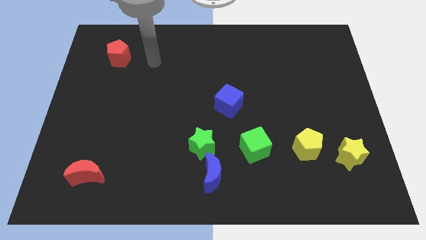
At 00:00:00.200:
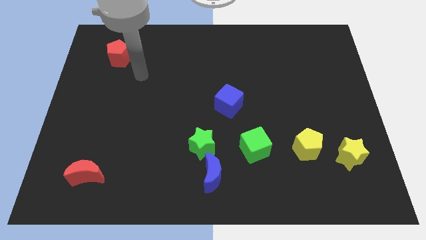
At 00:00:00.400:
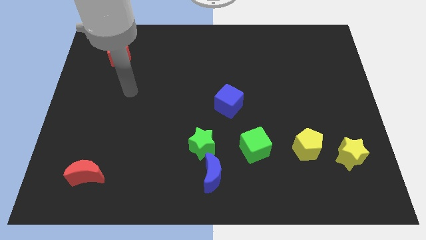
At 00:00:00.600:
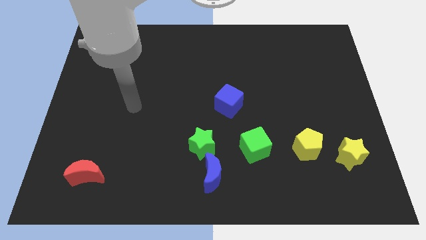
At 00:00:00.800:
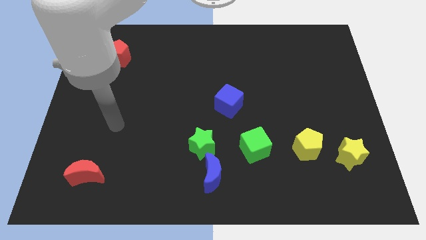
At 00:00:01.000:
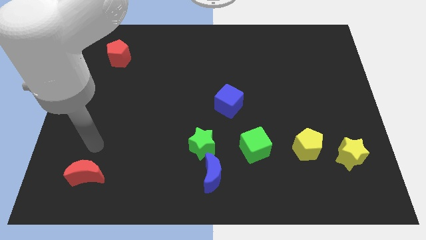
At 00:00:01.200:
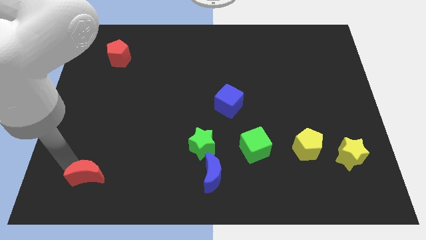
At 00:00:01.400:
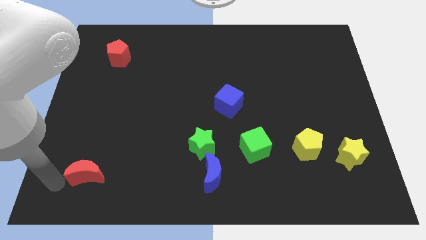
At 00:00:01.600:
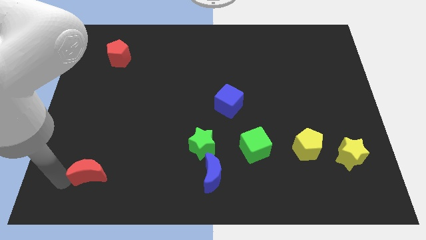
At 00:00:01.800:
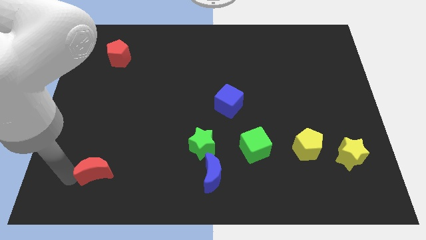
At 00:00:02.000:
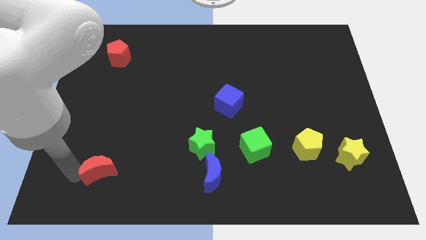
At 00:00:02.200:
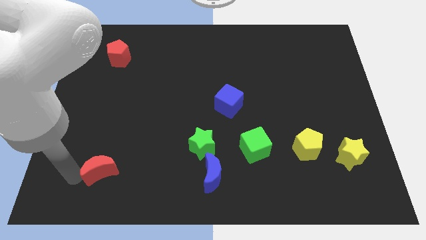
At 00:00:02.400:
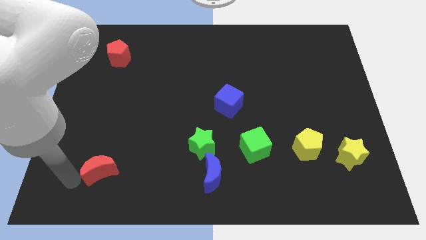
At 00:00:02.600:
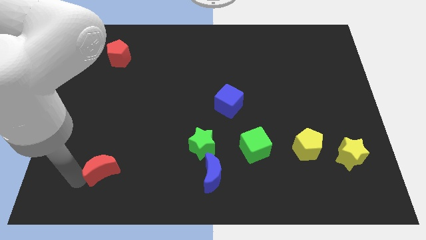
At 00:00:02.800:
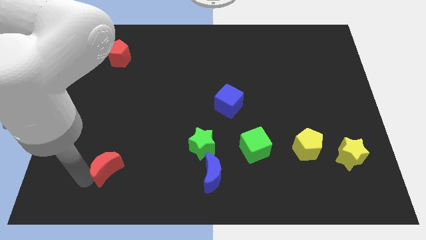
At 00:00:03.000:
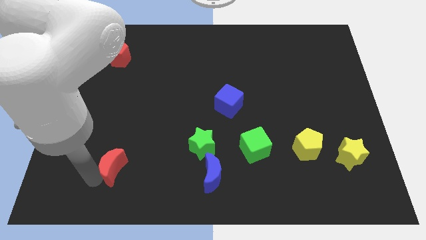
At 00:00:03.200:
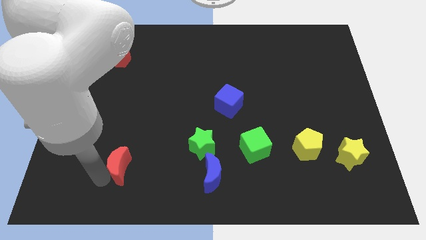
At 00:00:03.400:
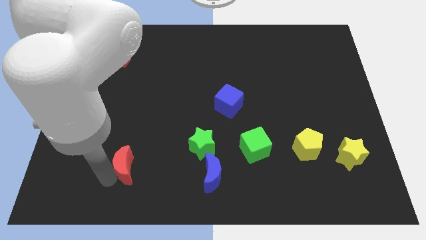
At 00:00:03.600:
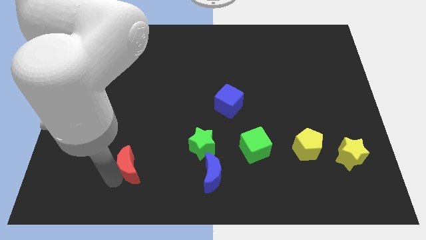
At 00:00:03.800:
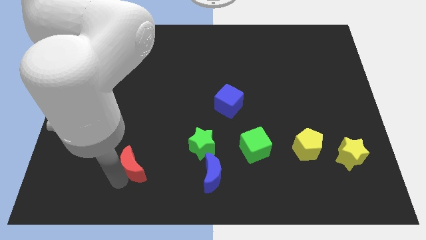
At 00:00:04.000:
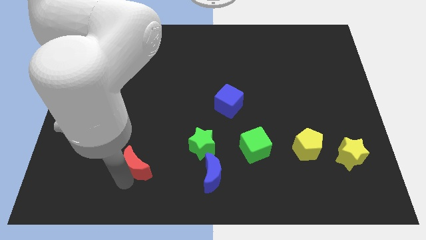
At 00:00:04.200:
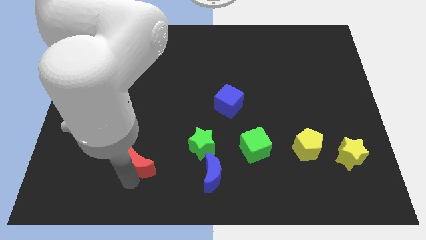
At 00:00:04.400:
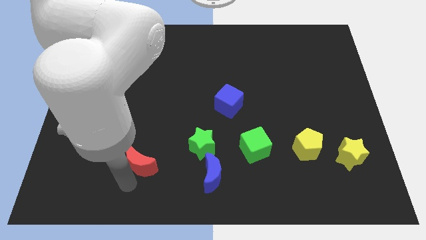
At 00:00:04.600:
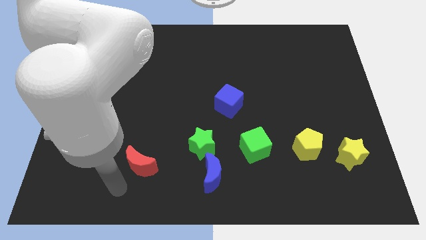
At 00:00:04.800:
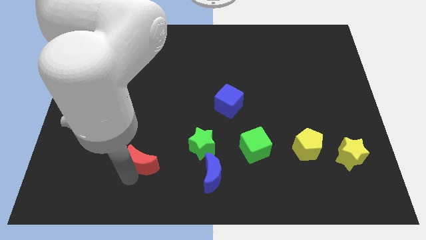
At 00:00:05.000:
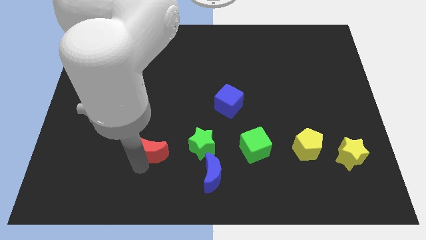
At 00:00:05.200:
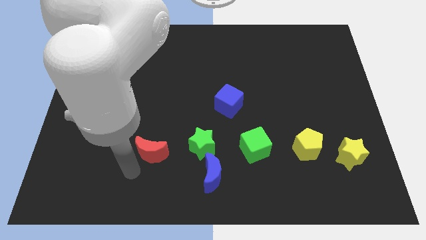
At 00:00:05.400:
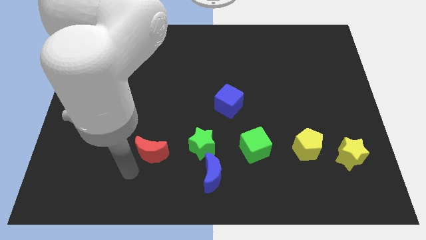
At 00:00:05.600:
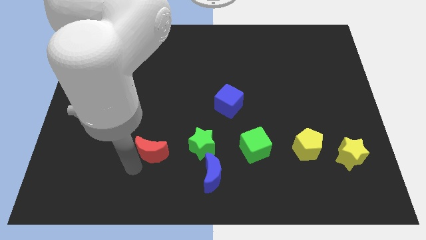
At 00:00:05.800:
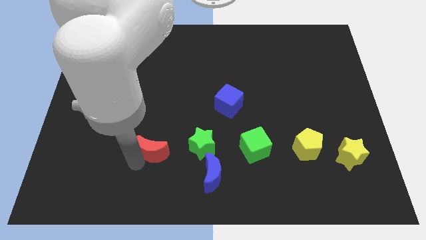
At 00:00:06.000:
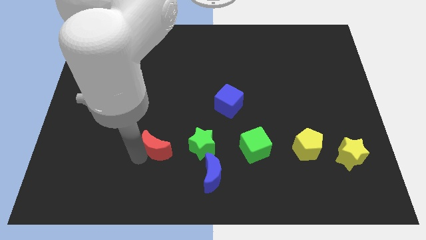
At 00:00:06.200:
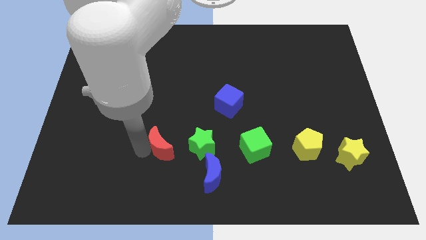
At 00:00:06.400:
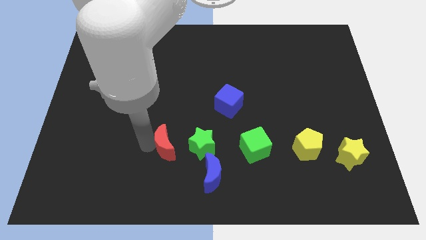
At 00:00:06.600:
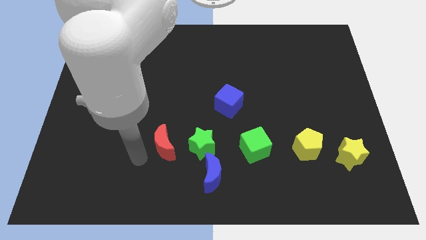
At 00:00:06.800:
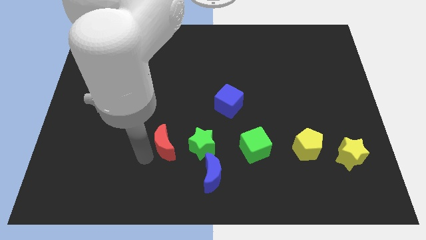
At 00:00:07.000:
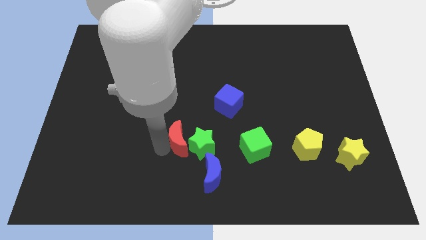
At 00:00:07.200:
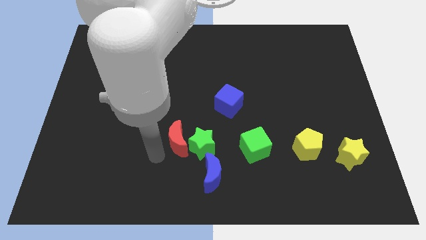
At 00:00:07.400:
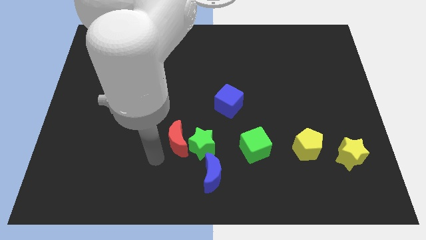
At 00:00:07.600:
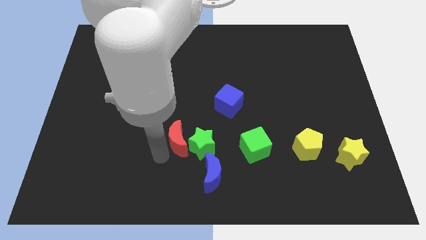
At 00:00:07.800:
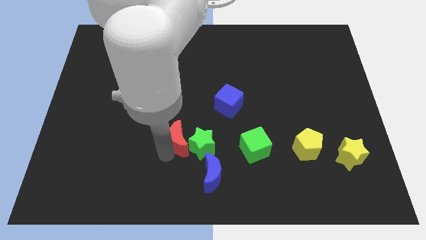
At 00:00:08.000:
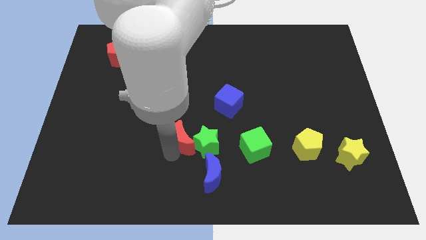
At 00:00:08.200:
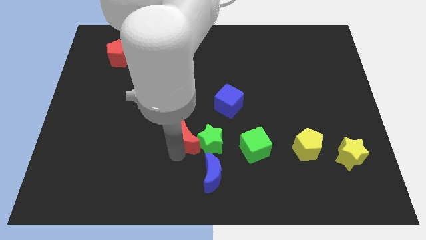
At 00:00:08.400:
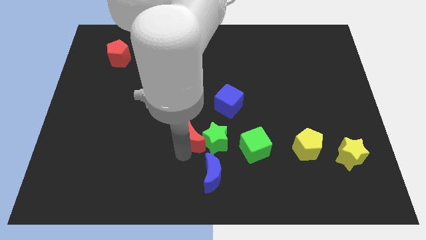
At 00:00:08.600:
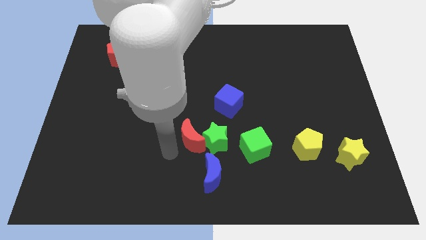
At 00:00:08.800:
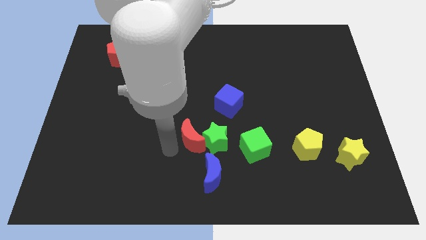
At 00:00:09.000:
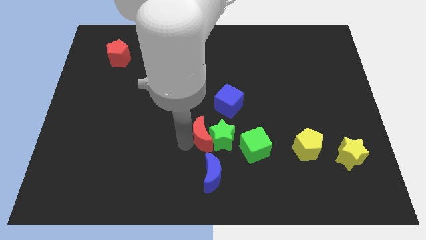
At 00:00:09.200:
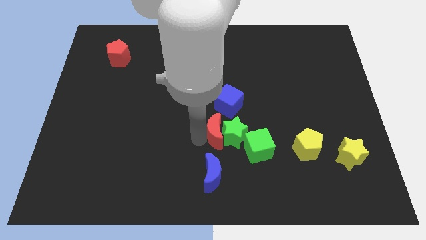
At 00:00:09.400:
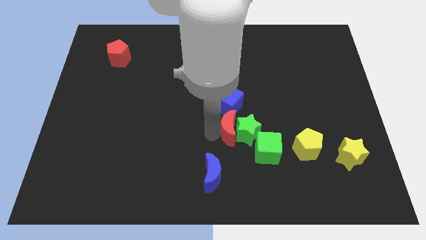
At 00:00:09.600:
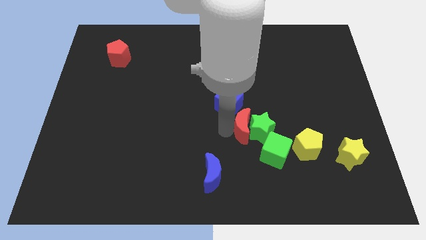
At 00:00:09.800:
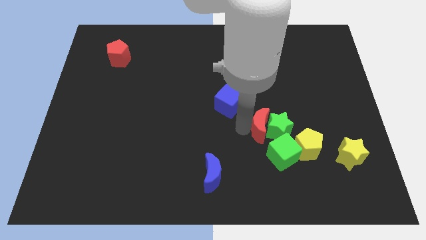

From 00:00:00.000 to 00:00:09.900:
put the red moon diagonally up and to the left of the yellow pentagon
